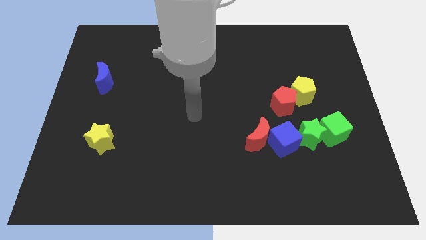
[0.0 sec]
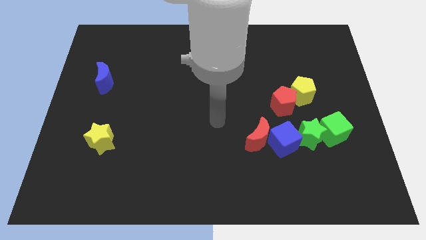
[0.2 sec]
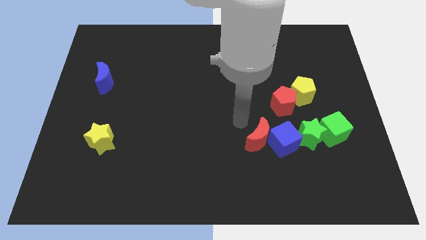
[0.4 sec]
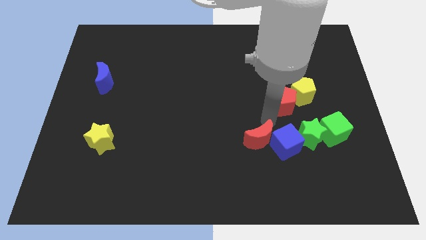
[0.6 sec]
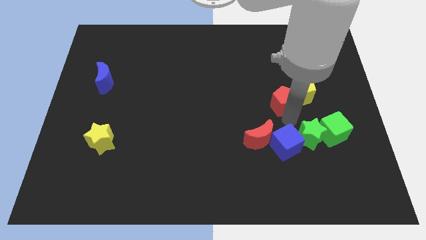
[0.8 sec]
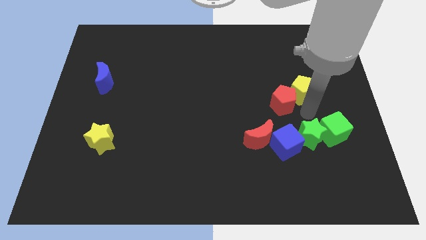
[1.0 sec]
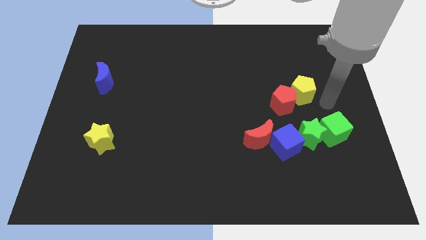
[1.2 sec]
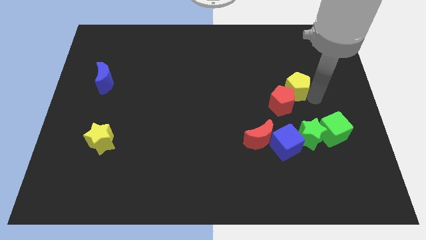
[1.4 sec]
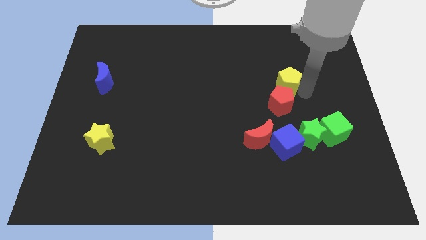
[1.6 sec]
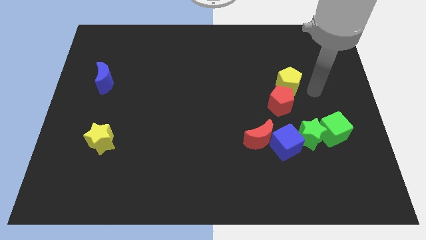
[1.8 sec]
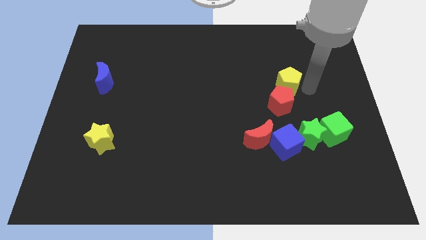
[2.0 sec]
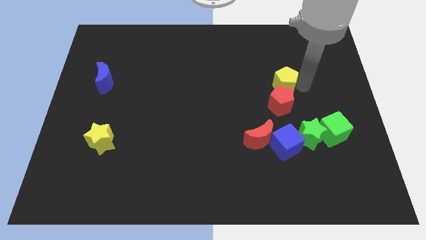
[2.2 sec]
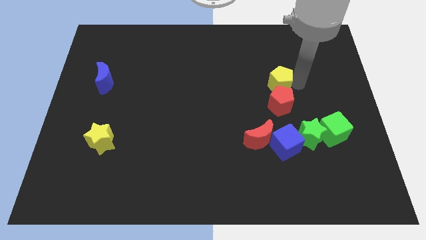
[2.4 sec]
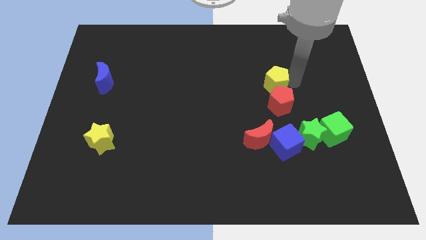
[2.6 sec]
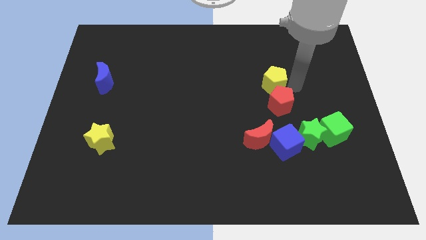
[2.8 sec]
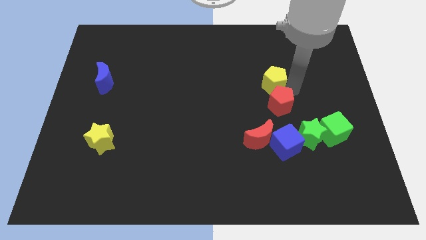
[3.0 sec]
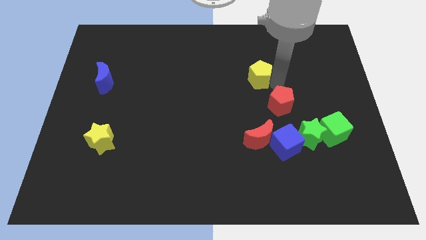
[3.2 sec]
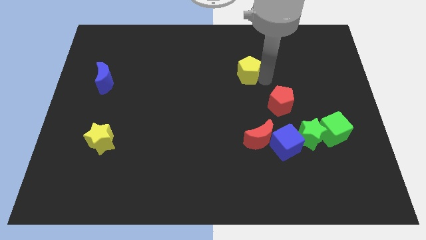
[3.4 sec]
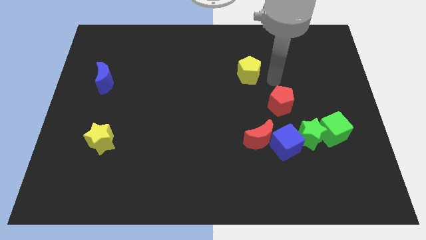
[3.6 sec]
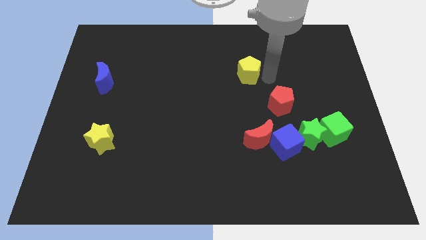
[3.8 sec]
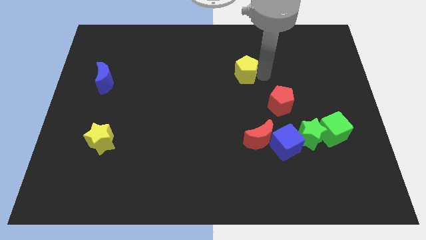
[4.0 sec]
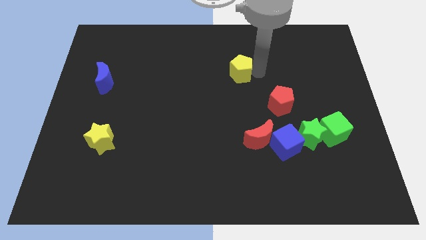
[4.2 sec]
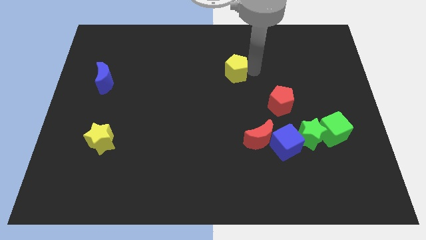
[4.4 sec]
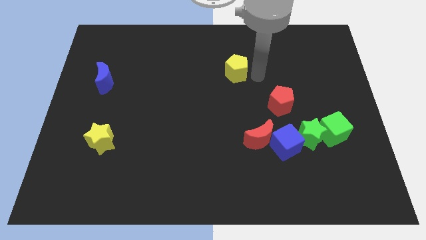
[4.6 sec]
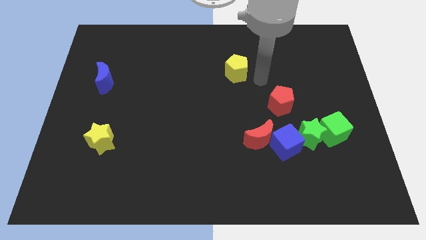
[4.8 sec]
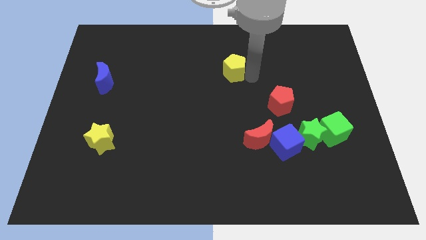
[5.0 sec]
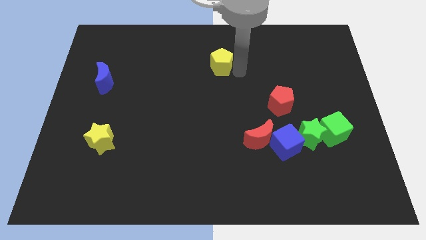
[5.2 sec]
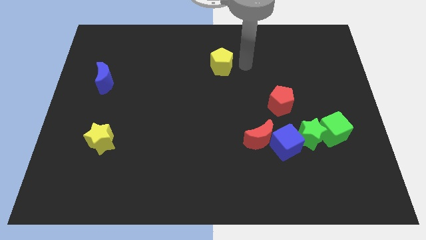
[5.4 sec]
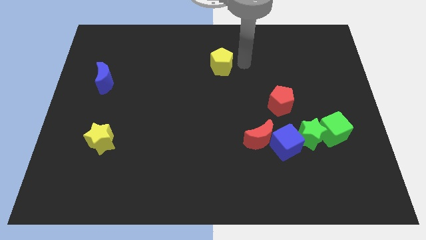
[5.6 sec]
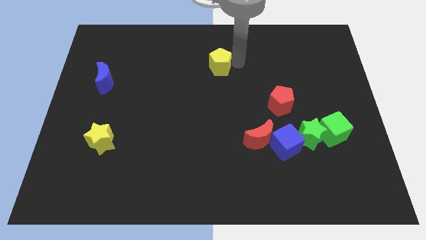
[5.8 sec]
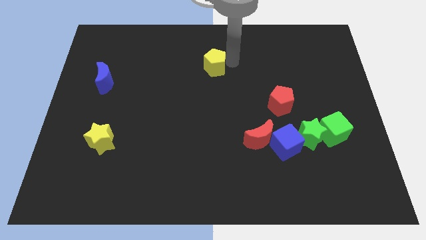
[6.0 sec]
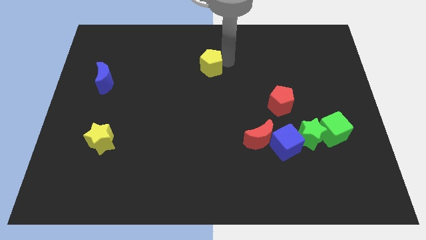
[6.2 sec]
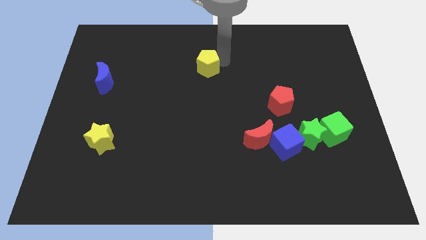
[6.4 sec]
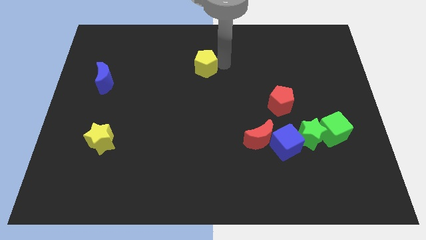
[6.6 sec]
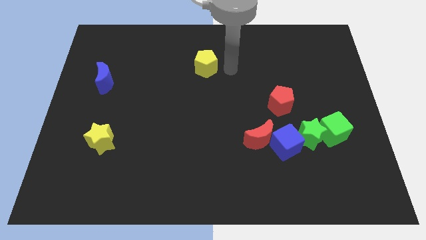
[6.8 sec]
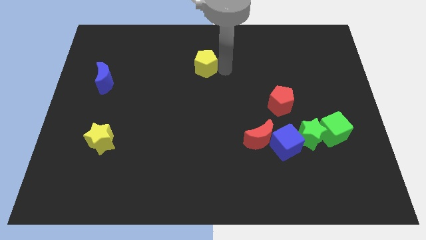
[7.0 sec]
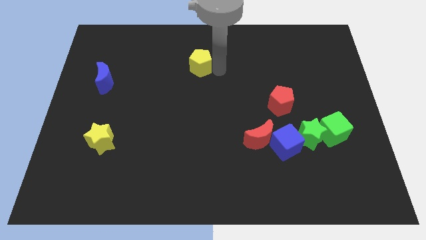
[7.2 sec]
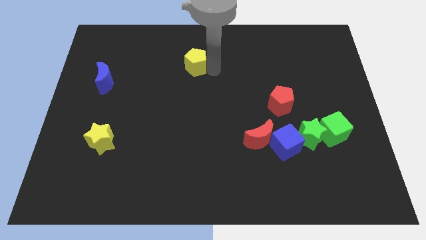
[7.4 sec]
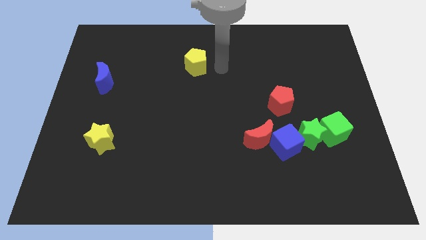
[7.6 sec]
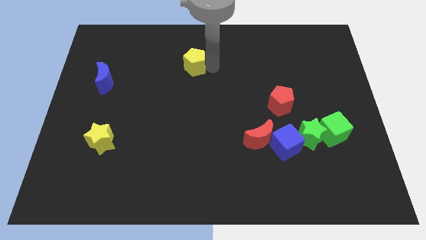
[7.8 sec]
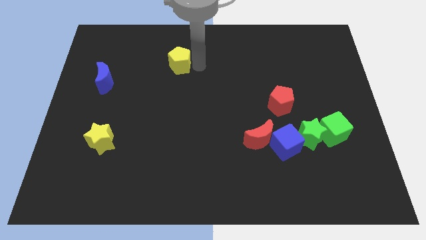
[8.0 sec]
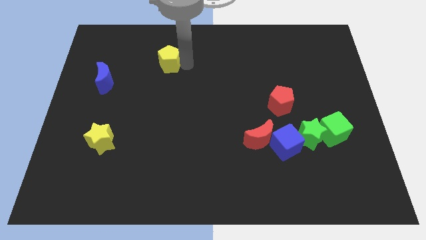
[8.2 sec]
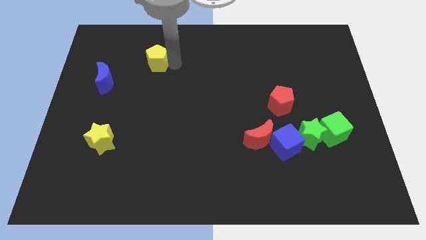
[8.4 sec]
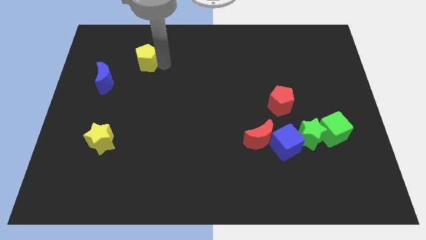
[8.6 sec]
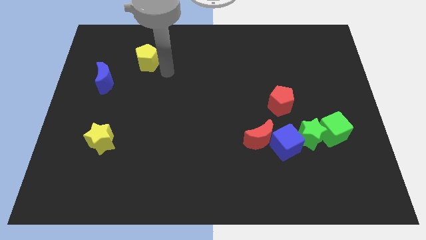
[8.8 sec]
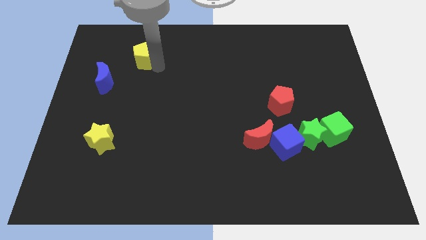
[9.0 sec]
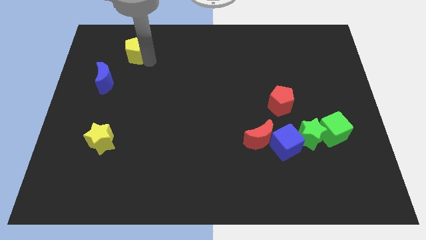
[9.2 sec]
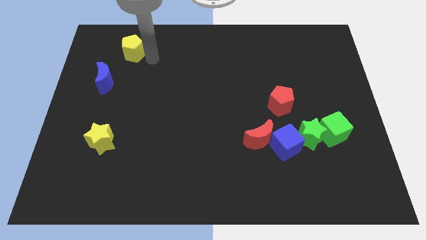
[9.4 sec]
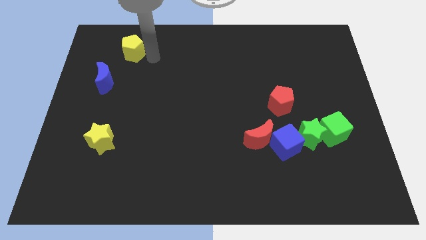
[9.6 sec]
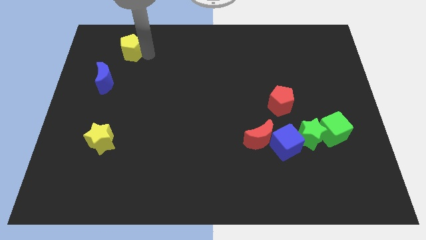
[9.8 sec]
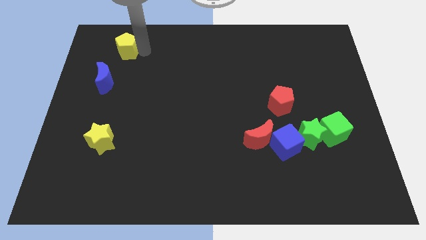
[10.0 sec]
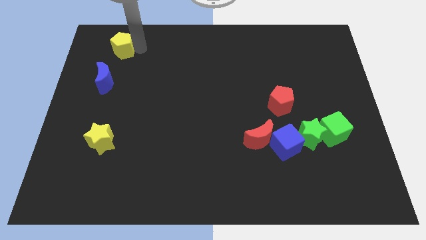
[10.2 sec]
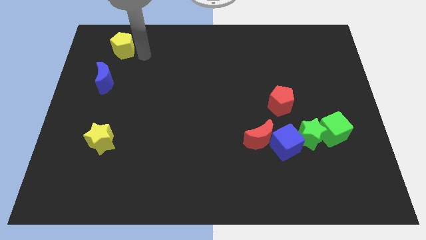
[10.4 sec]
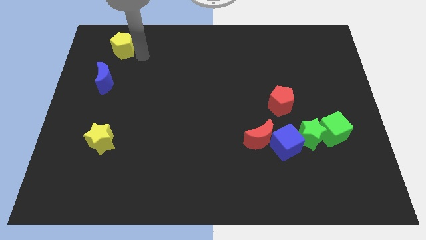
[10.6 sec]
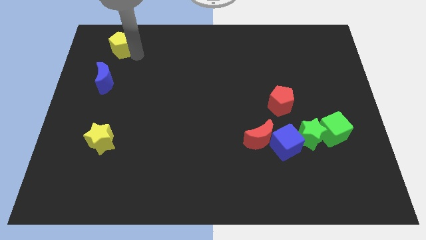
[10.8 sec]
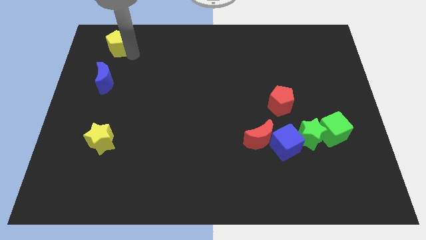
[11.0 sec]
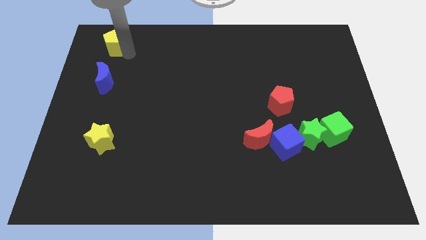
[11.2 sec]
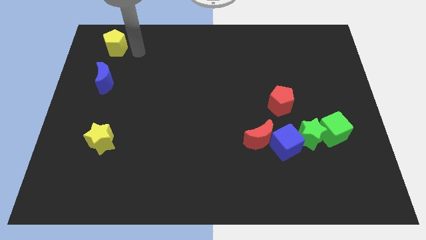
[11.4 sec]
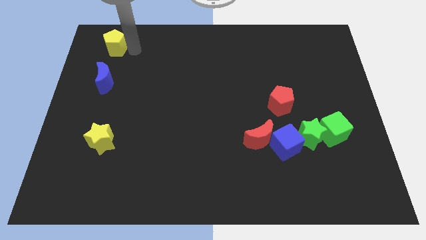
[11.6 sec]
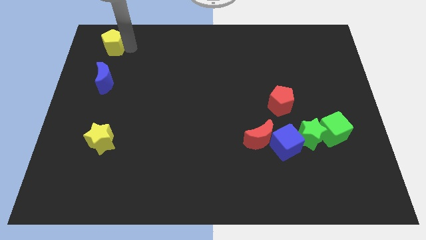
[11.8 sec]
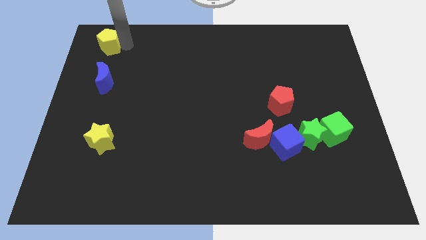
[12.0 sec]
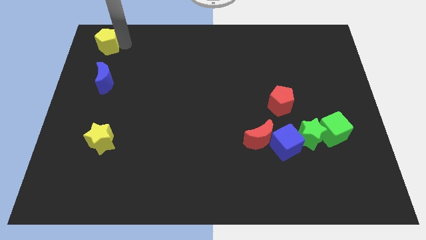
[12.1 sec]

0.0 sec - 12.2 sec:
move the yellow pentagon to the top left of the board
